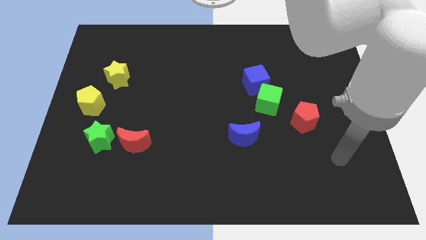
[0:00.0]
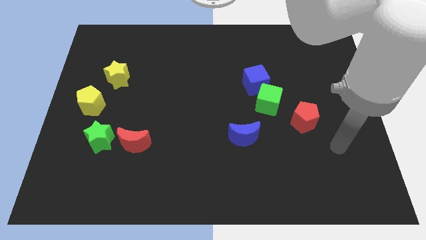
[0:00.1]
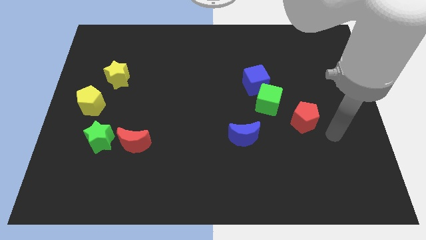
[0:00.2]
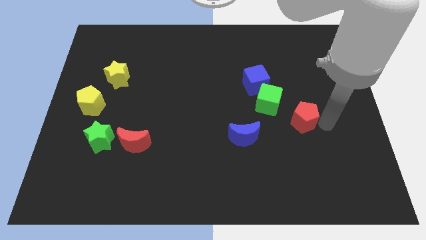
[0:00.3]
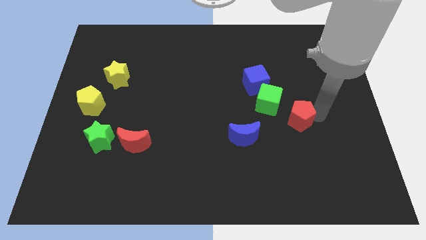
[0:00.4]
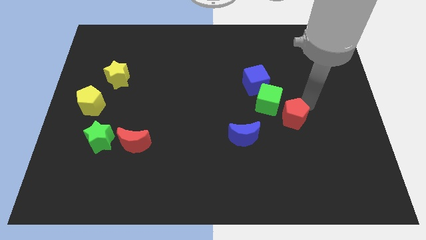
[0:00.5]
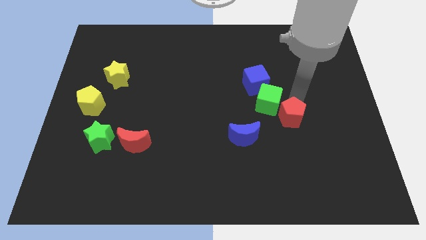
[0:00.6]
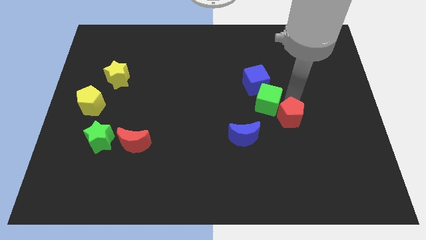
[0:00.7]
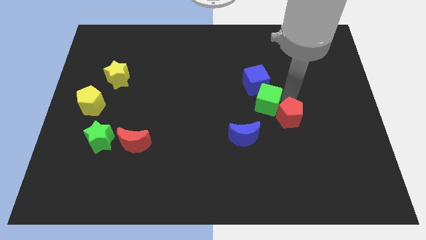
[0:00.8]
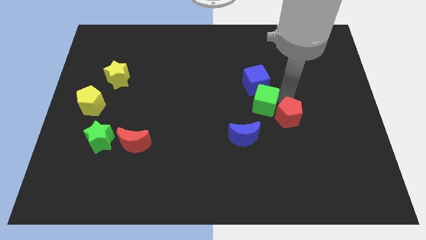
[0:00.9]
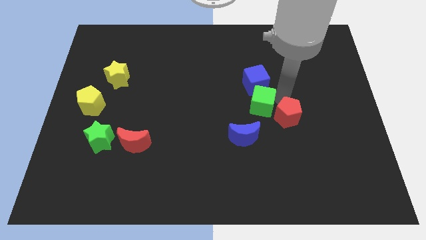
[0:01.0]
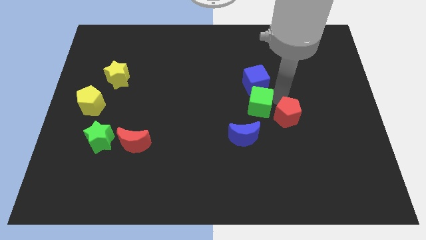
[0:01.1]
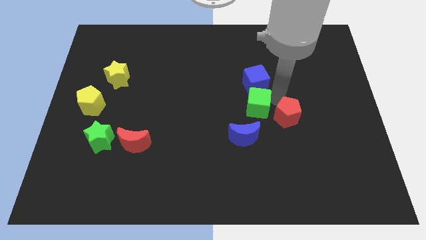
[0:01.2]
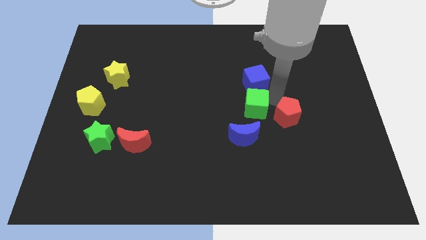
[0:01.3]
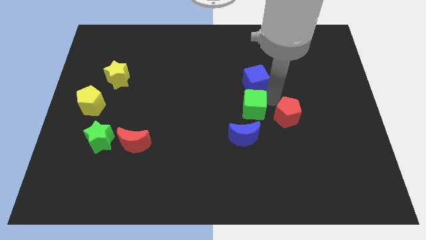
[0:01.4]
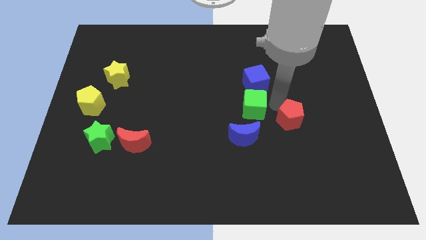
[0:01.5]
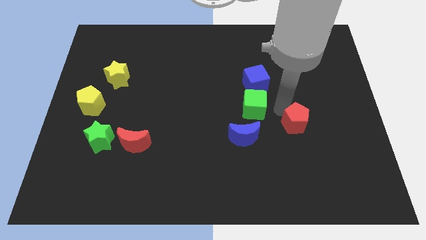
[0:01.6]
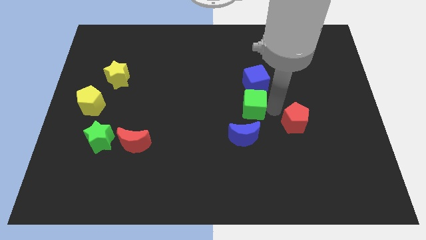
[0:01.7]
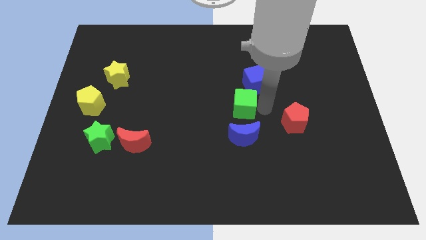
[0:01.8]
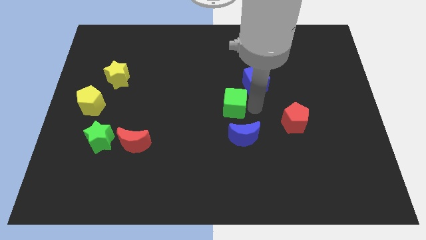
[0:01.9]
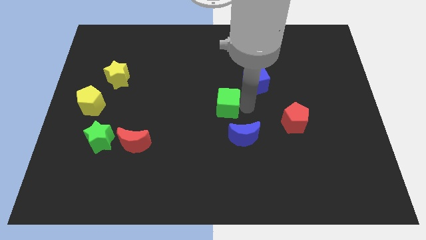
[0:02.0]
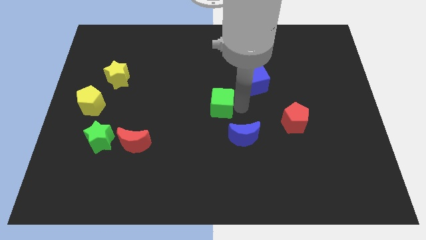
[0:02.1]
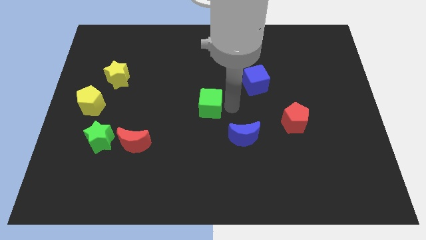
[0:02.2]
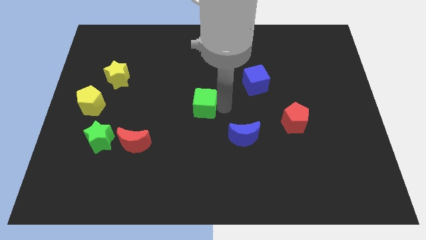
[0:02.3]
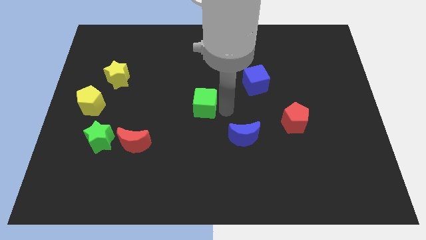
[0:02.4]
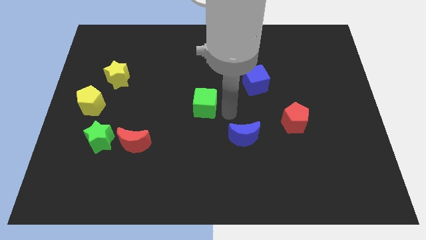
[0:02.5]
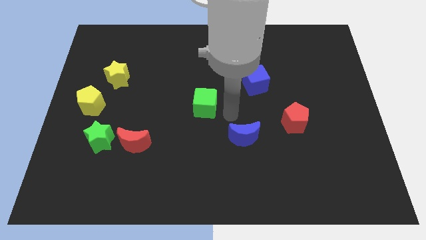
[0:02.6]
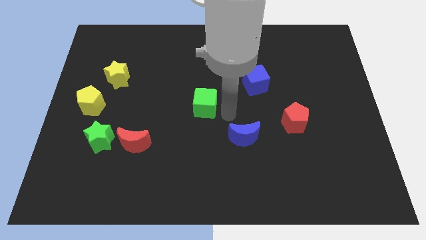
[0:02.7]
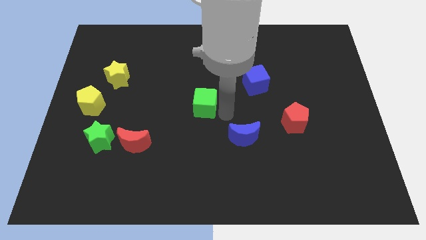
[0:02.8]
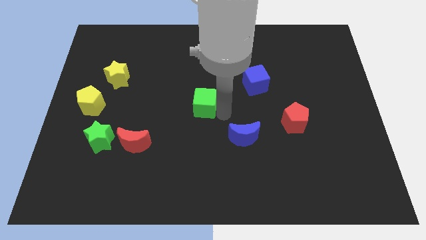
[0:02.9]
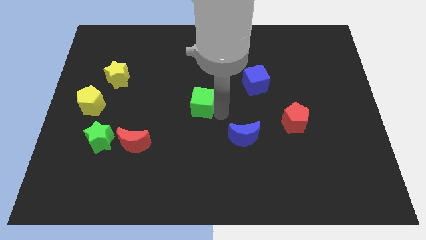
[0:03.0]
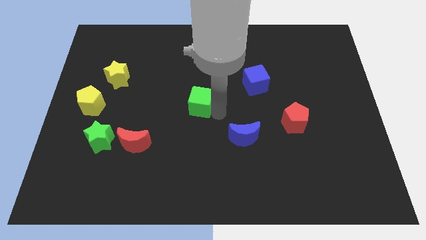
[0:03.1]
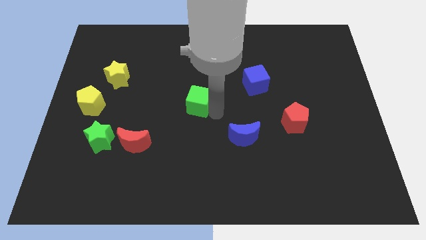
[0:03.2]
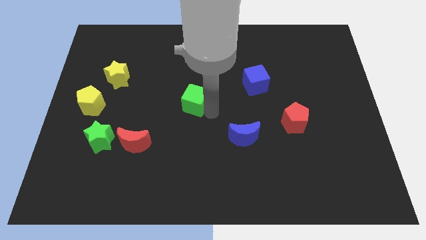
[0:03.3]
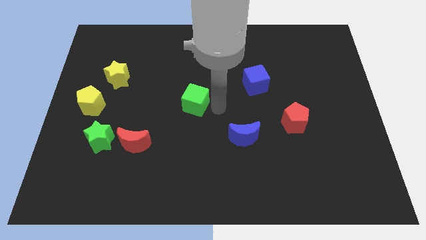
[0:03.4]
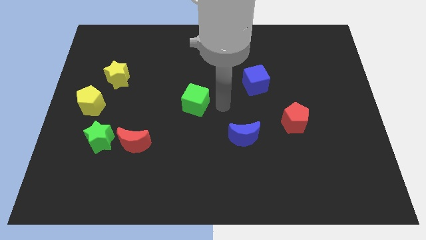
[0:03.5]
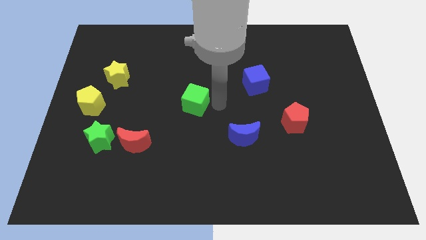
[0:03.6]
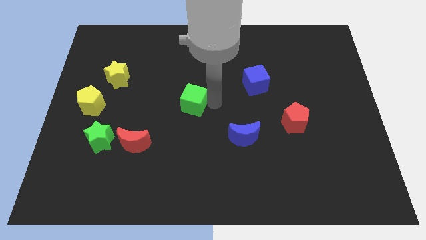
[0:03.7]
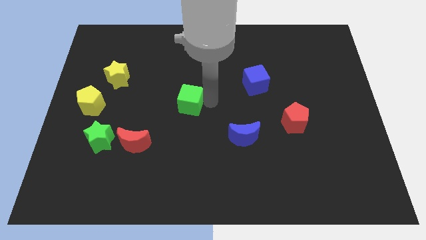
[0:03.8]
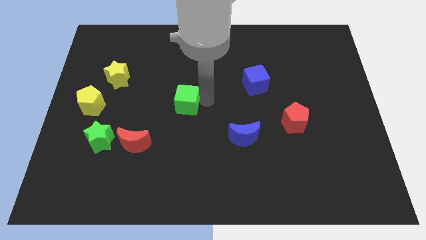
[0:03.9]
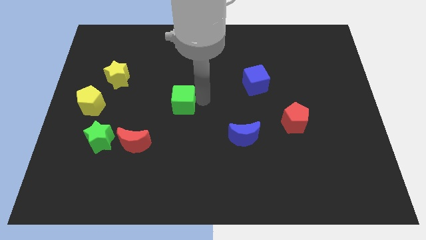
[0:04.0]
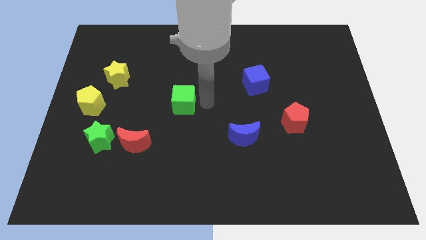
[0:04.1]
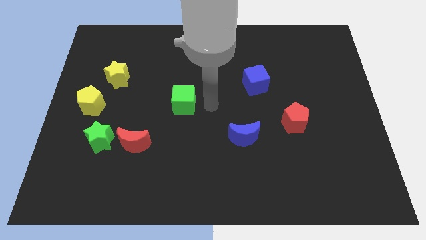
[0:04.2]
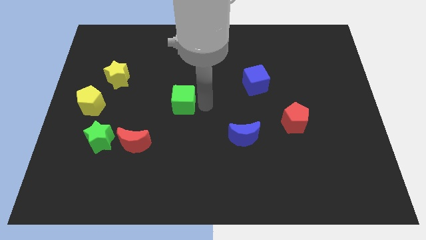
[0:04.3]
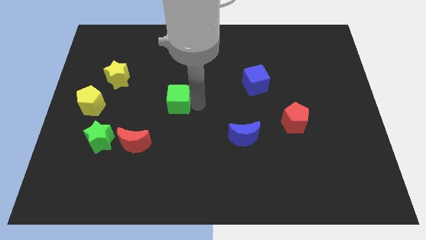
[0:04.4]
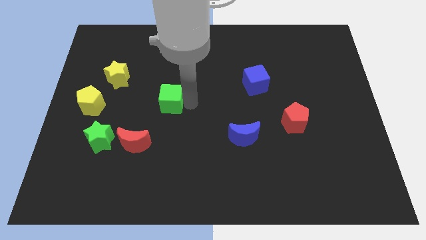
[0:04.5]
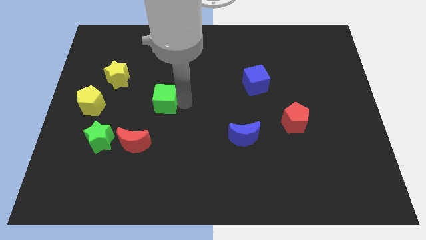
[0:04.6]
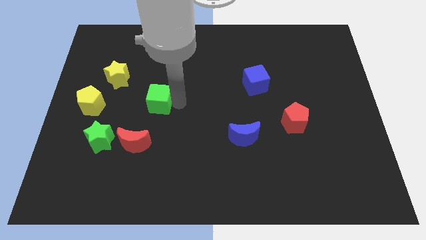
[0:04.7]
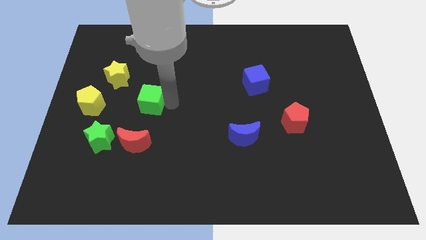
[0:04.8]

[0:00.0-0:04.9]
put the green cube to the bottom right side of the yellow star

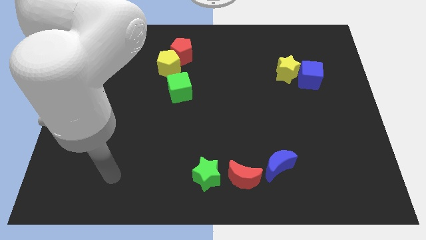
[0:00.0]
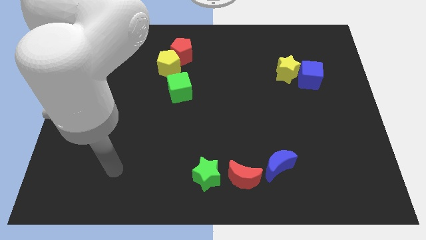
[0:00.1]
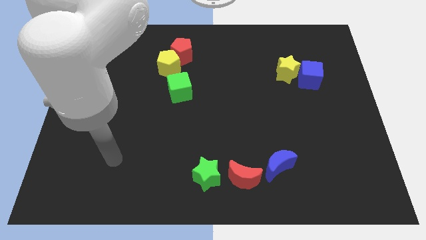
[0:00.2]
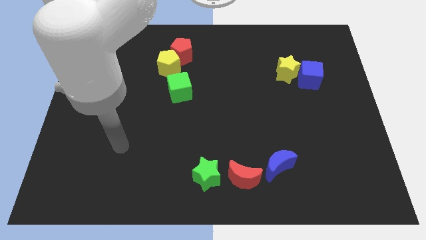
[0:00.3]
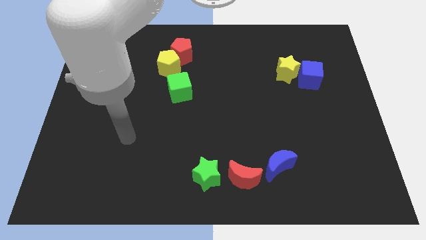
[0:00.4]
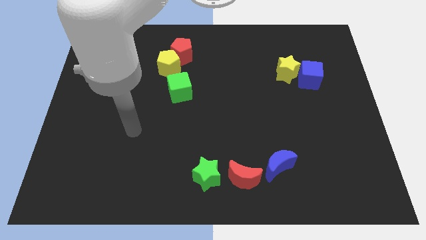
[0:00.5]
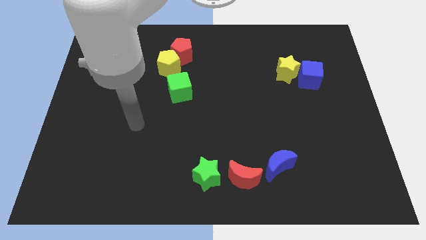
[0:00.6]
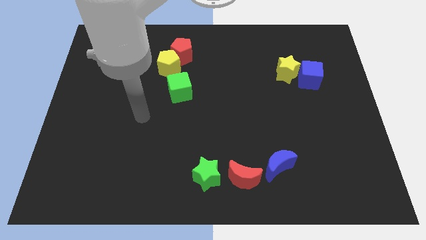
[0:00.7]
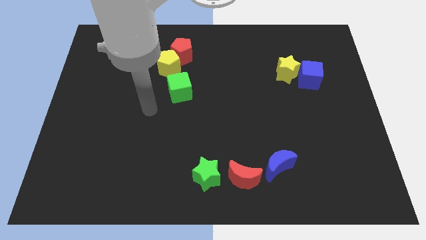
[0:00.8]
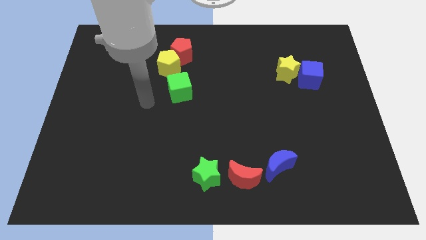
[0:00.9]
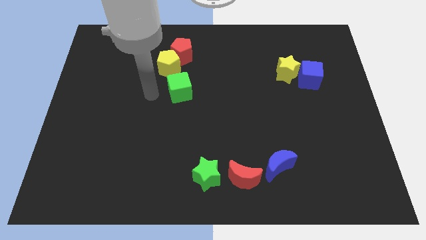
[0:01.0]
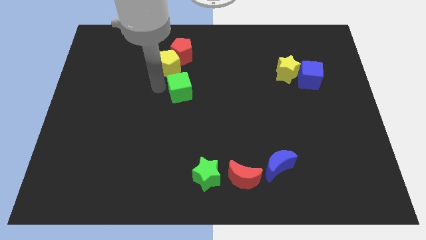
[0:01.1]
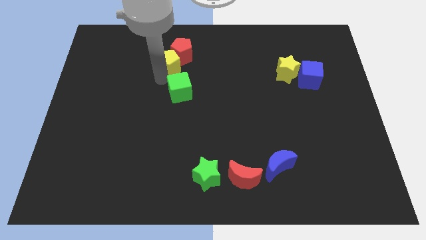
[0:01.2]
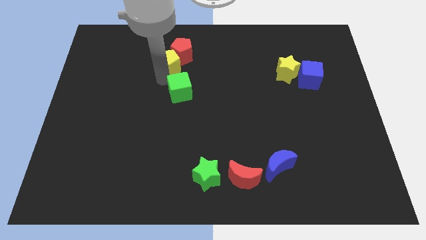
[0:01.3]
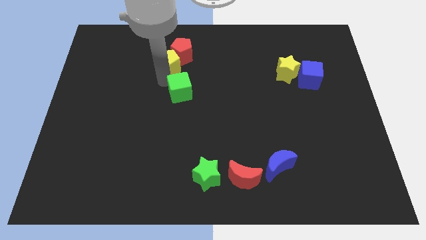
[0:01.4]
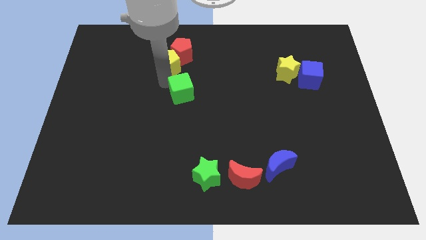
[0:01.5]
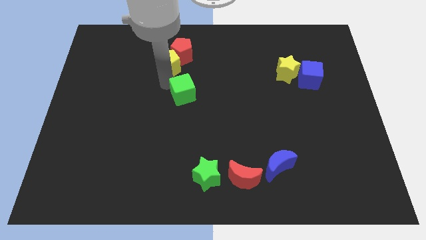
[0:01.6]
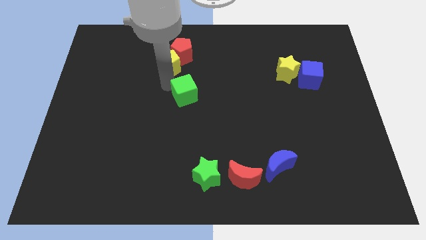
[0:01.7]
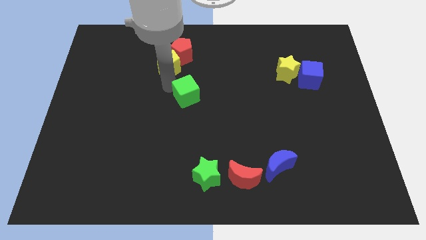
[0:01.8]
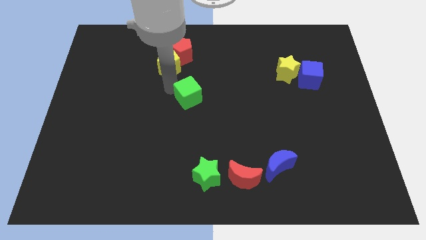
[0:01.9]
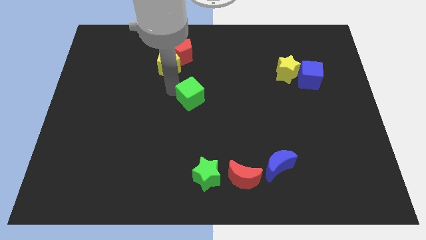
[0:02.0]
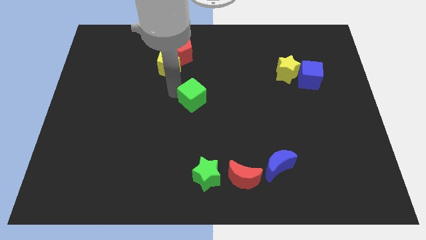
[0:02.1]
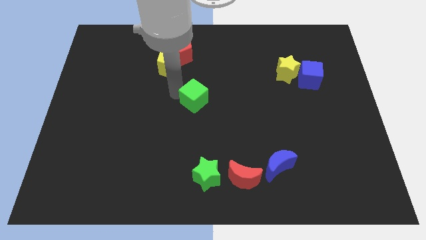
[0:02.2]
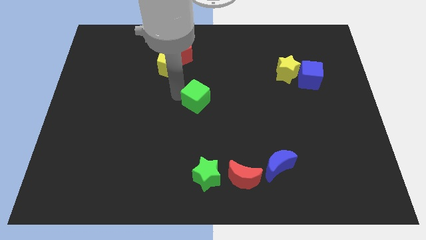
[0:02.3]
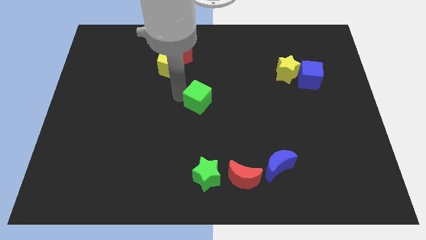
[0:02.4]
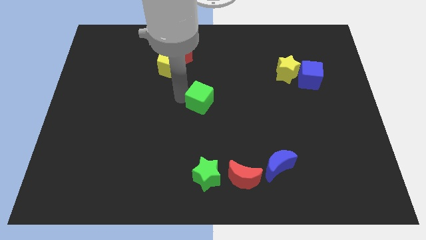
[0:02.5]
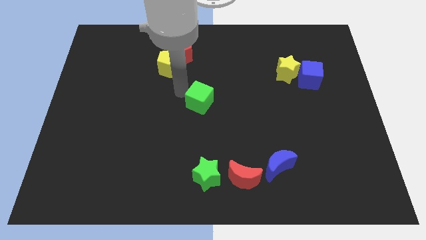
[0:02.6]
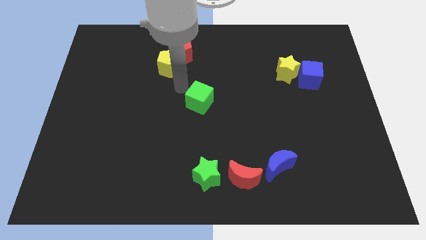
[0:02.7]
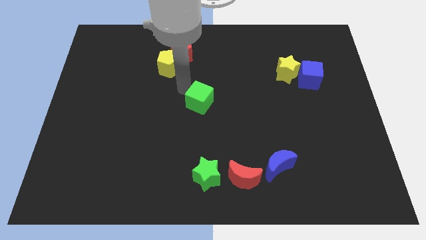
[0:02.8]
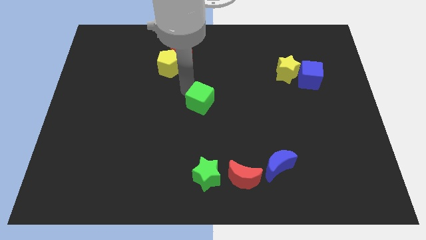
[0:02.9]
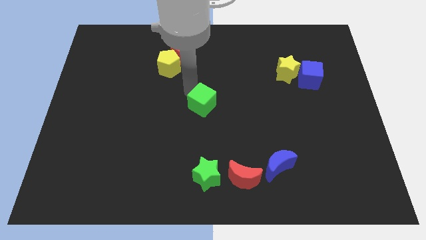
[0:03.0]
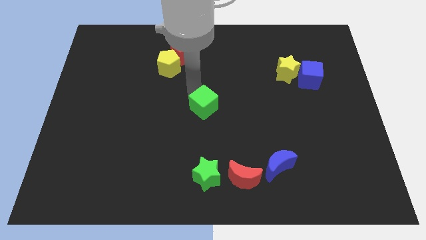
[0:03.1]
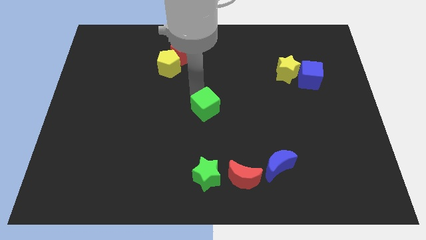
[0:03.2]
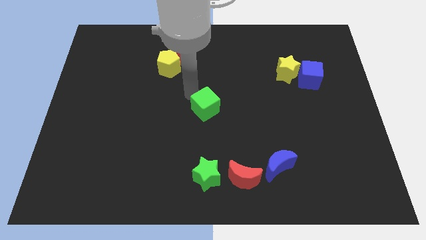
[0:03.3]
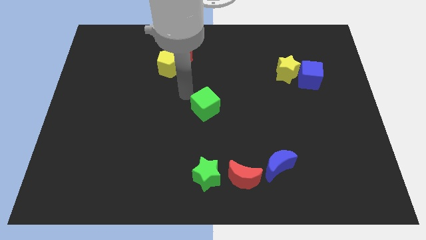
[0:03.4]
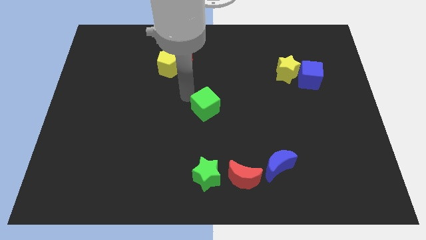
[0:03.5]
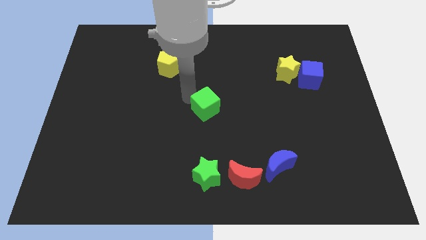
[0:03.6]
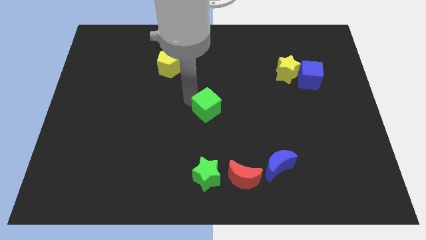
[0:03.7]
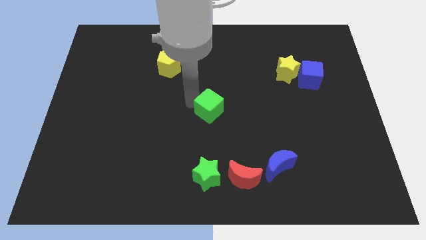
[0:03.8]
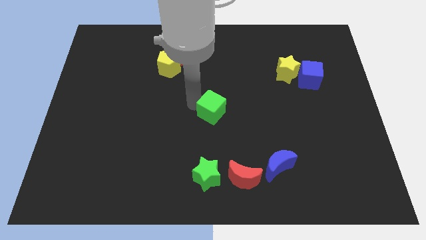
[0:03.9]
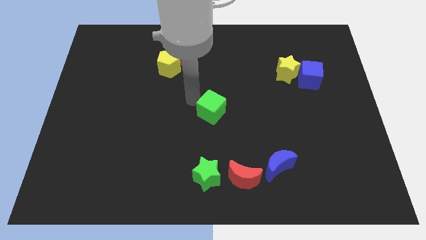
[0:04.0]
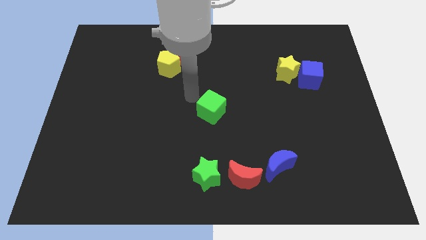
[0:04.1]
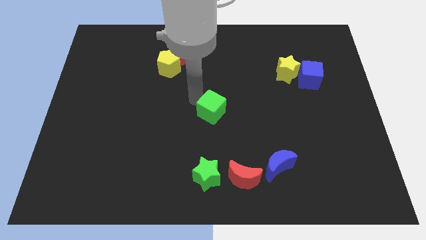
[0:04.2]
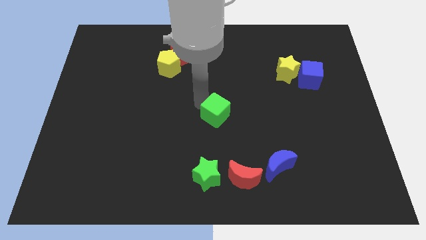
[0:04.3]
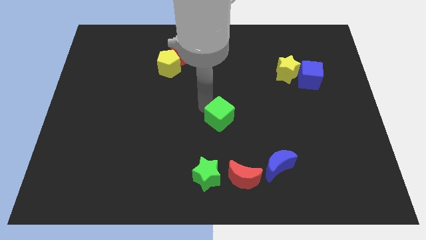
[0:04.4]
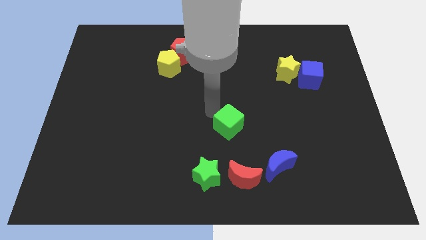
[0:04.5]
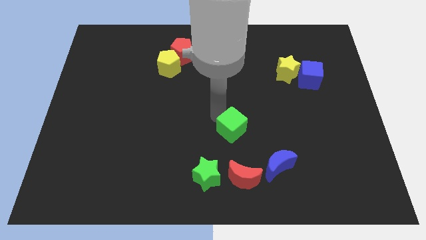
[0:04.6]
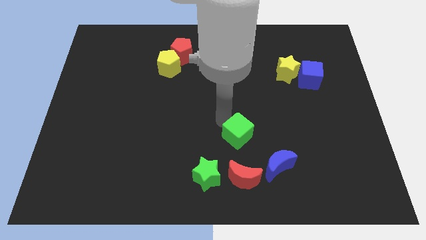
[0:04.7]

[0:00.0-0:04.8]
put the green cube to the top left side of the blue moon
